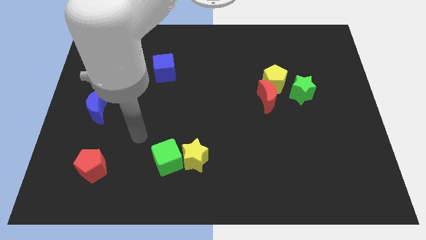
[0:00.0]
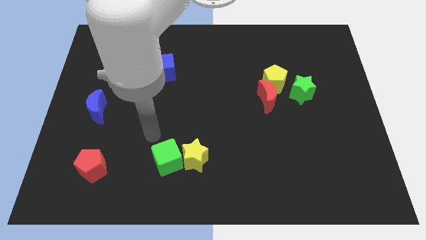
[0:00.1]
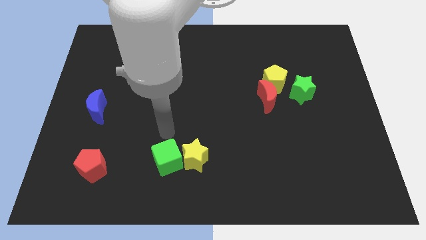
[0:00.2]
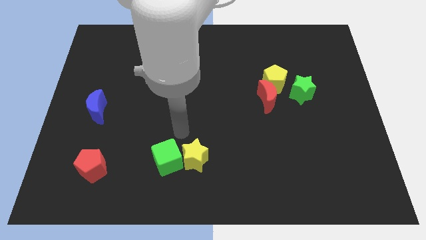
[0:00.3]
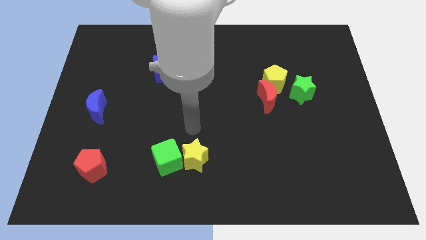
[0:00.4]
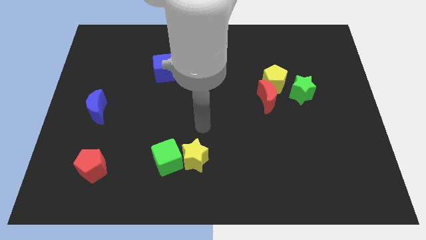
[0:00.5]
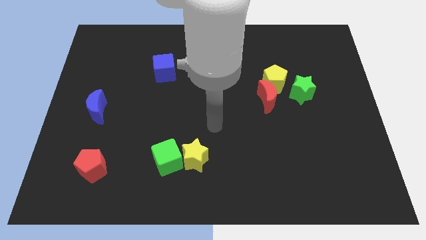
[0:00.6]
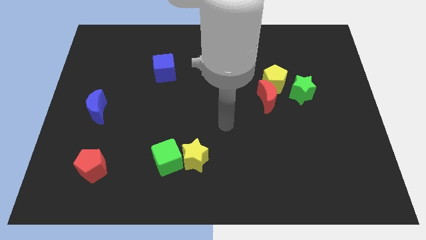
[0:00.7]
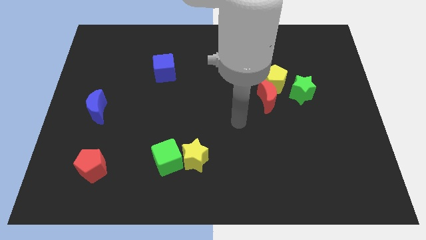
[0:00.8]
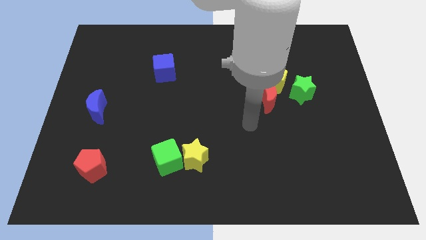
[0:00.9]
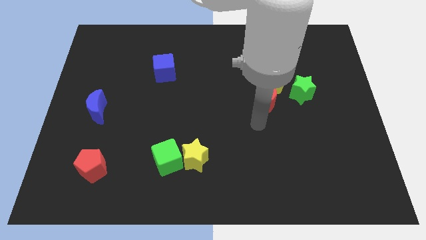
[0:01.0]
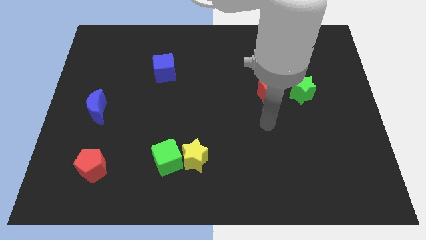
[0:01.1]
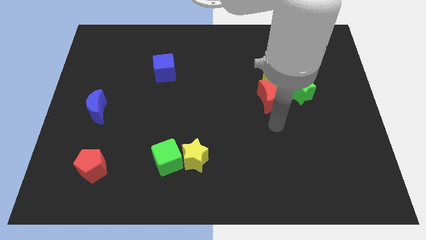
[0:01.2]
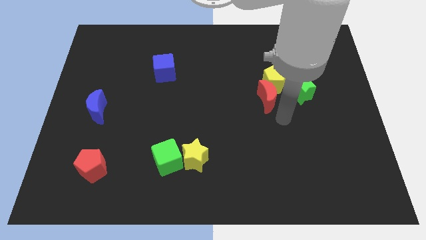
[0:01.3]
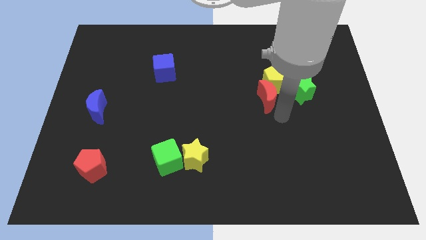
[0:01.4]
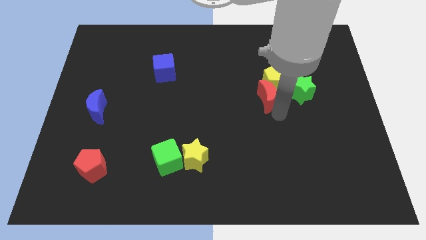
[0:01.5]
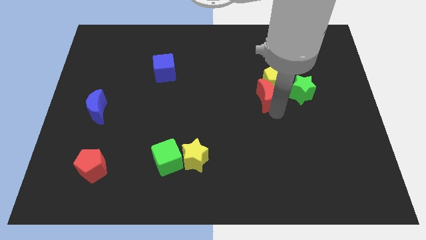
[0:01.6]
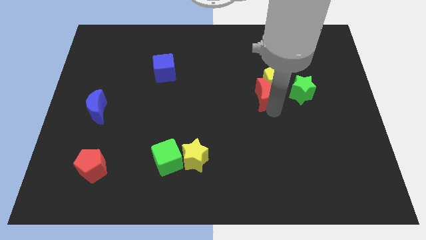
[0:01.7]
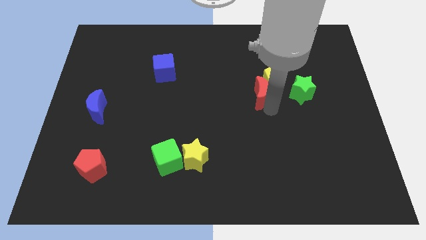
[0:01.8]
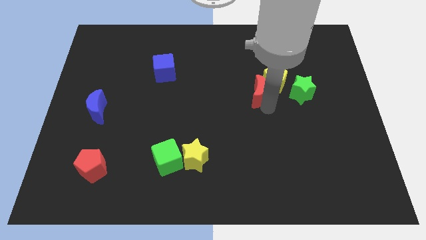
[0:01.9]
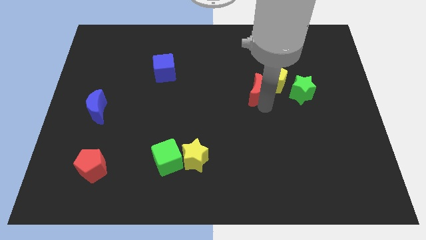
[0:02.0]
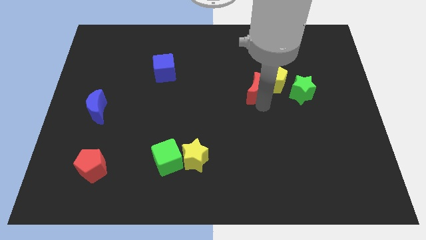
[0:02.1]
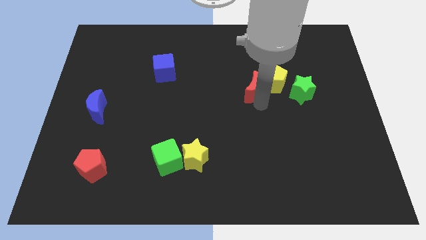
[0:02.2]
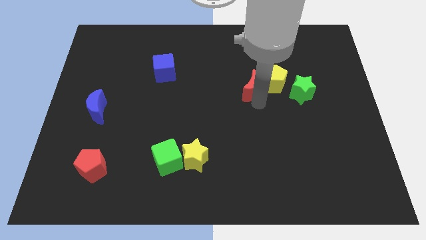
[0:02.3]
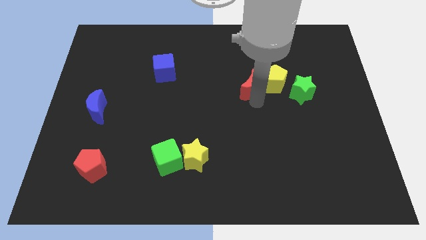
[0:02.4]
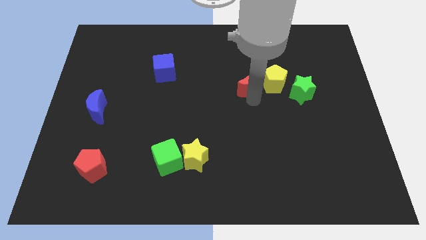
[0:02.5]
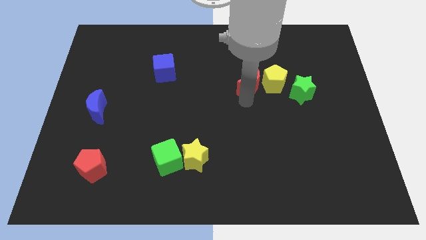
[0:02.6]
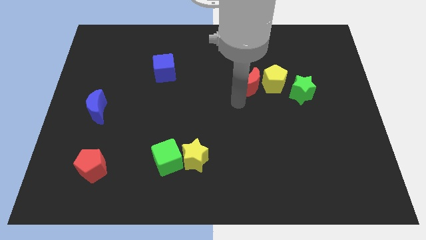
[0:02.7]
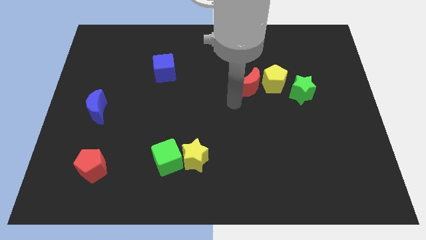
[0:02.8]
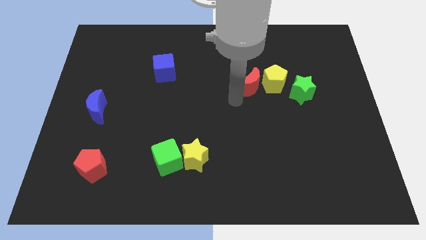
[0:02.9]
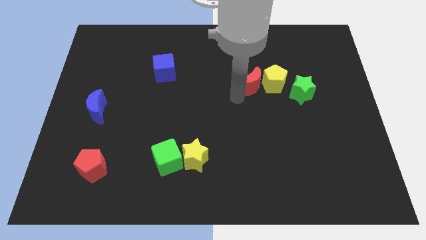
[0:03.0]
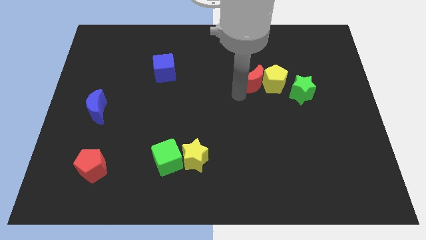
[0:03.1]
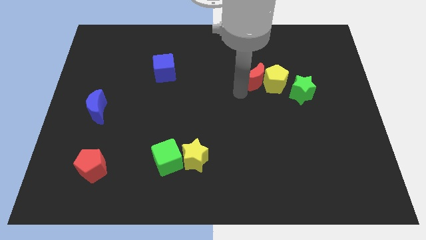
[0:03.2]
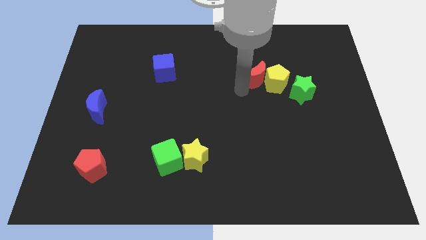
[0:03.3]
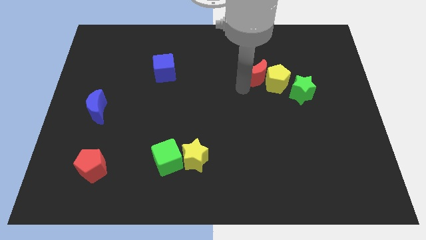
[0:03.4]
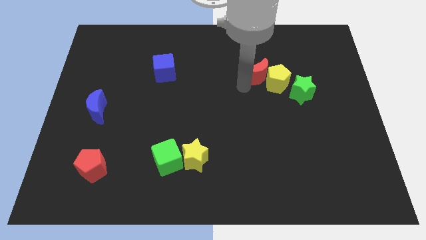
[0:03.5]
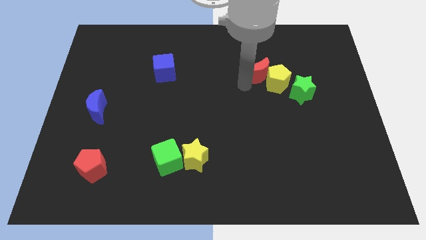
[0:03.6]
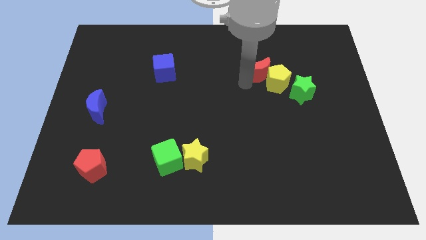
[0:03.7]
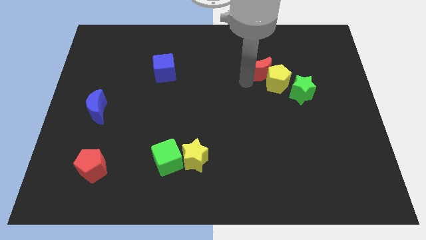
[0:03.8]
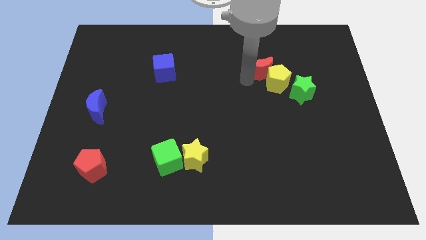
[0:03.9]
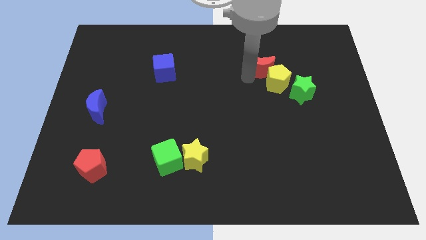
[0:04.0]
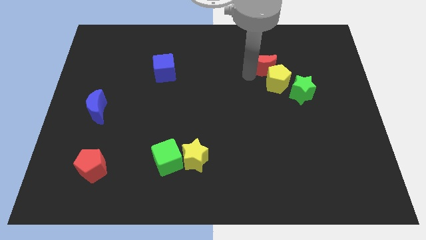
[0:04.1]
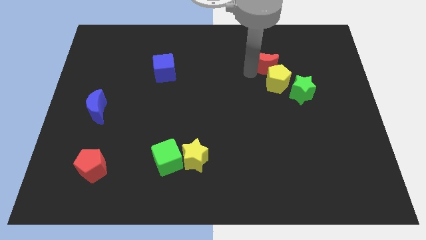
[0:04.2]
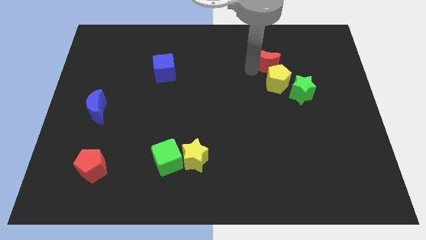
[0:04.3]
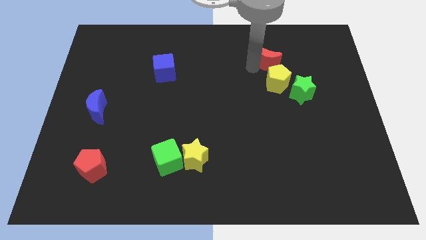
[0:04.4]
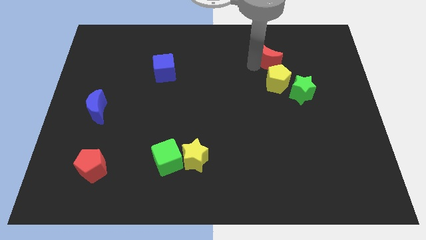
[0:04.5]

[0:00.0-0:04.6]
slightly slide the red moon up and to the right

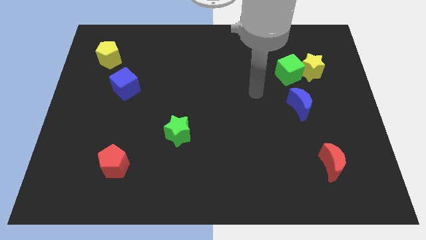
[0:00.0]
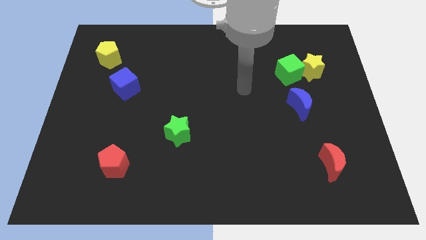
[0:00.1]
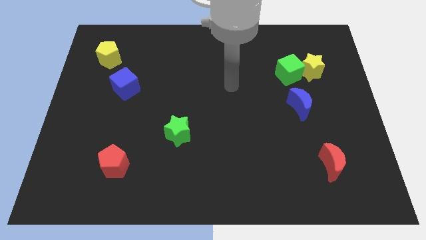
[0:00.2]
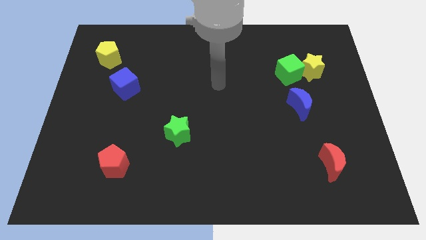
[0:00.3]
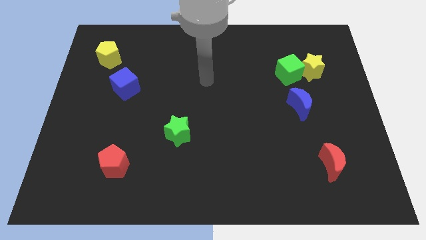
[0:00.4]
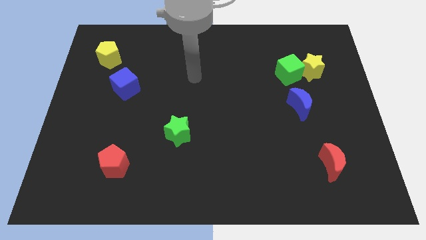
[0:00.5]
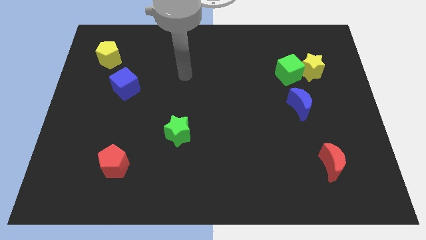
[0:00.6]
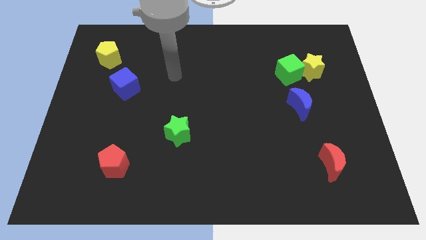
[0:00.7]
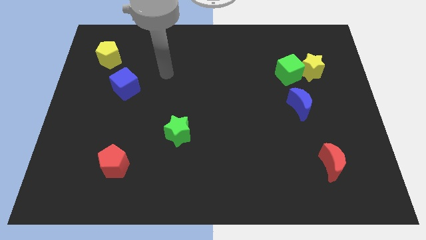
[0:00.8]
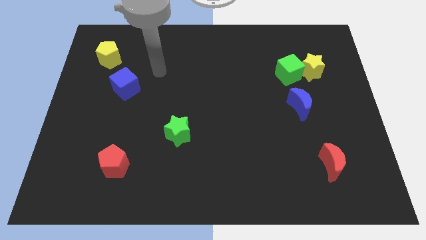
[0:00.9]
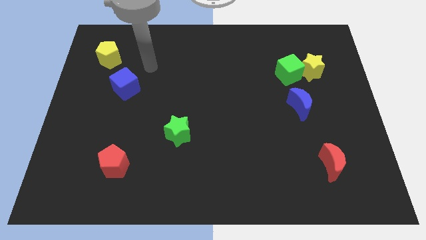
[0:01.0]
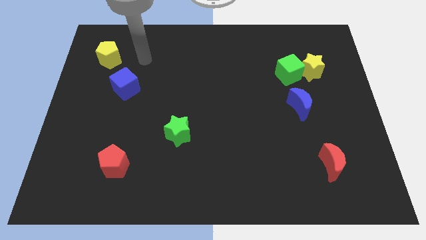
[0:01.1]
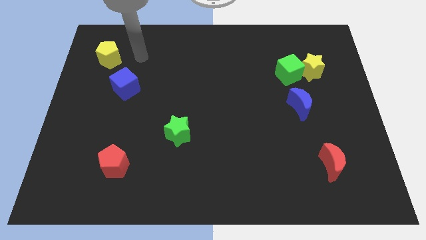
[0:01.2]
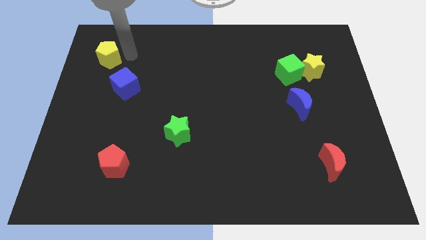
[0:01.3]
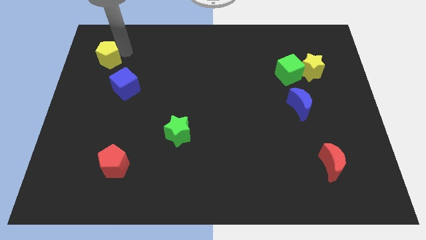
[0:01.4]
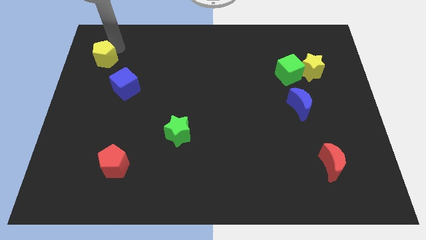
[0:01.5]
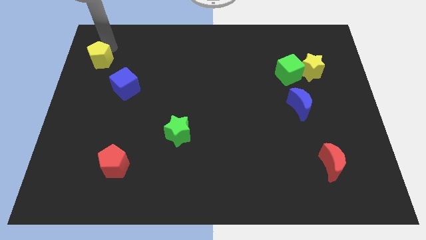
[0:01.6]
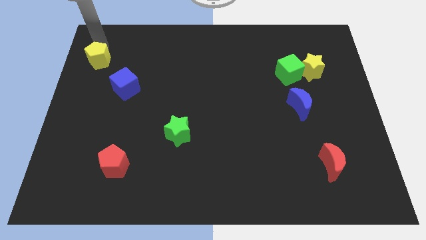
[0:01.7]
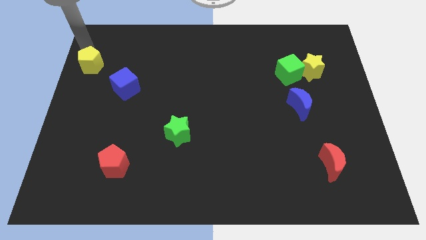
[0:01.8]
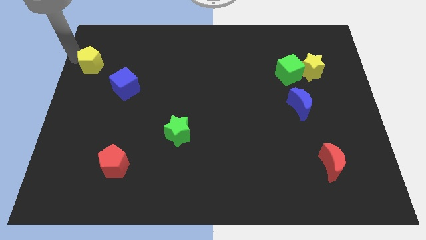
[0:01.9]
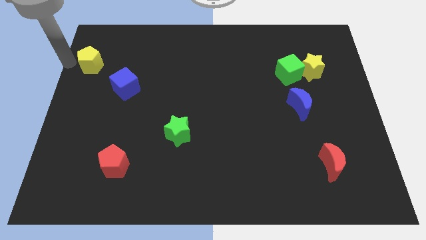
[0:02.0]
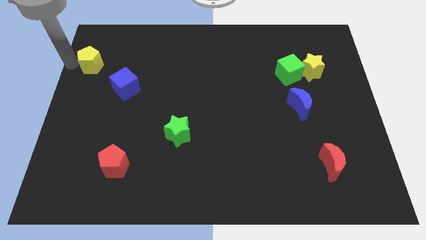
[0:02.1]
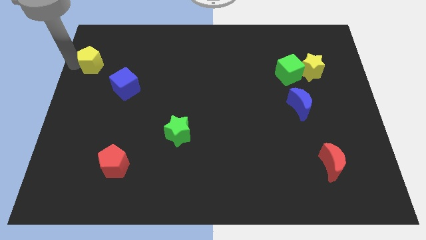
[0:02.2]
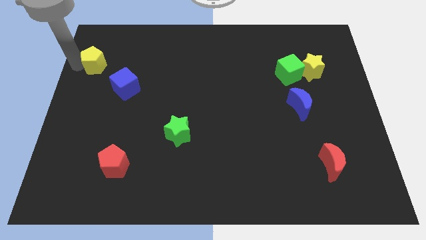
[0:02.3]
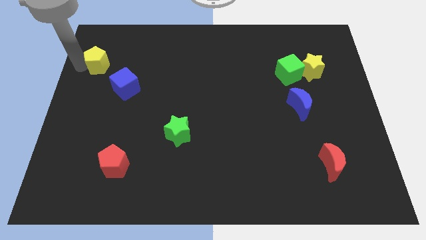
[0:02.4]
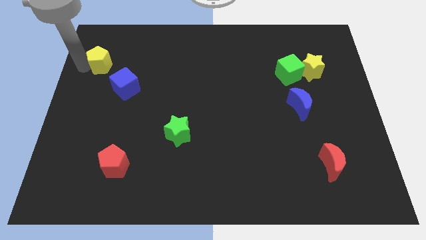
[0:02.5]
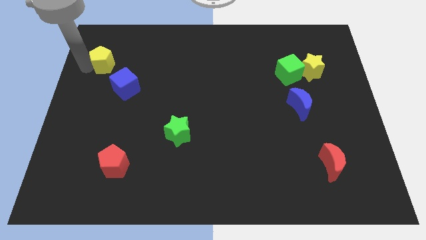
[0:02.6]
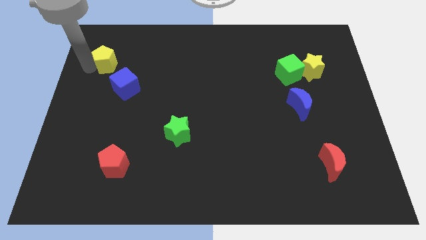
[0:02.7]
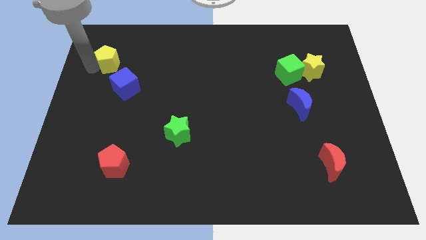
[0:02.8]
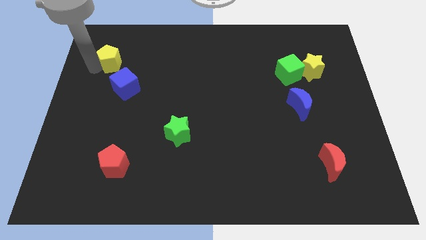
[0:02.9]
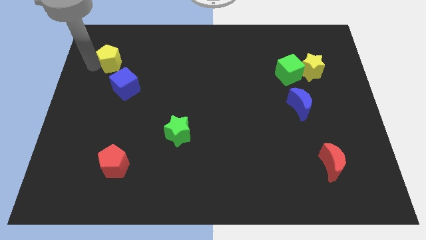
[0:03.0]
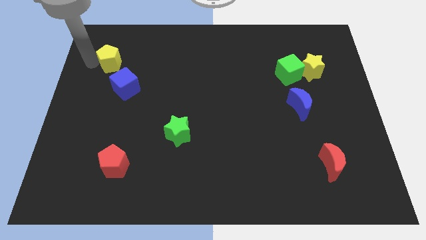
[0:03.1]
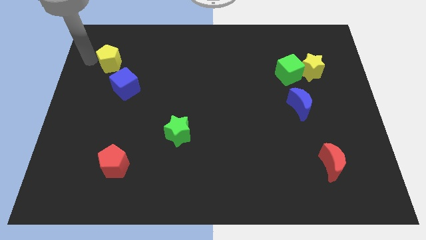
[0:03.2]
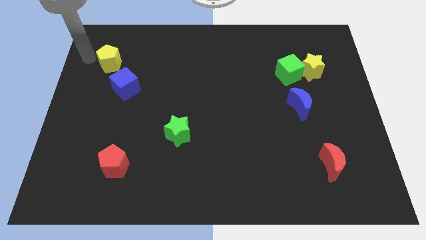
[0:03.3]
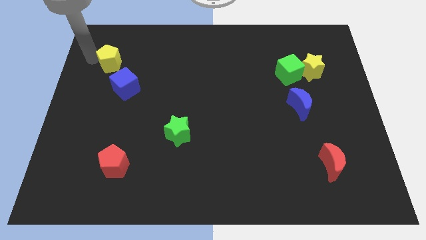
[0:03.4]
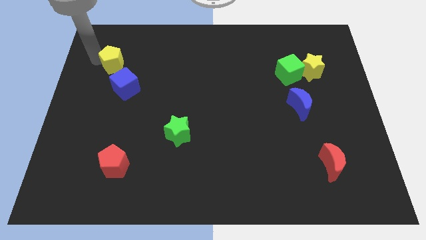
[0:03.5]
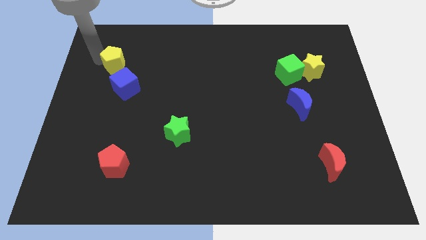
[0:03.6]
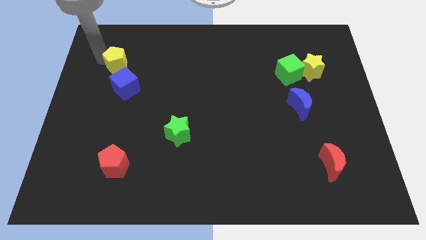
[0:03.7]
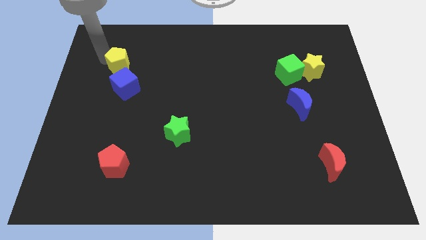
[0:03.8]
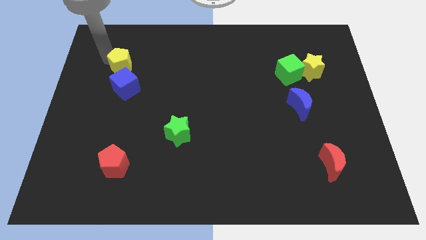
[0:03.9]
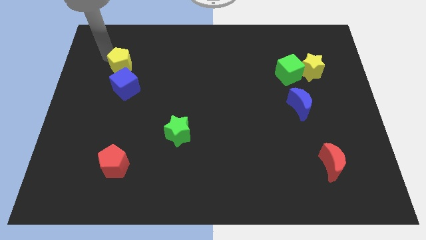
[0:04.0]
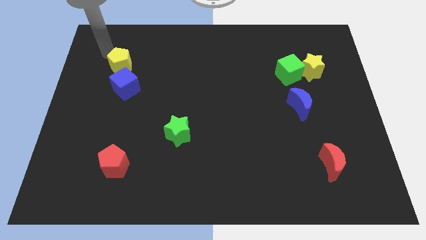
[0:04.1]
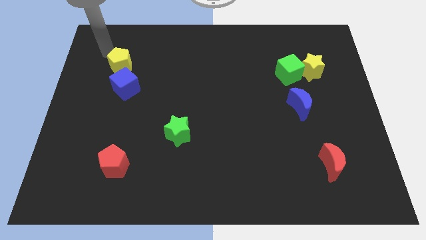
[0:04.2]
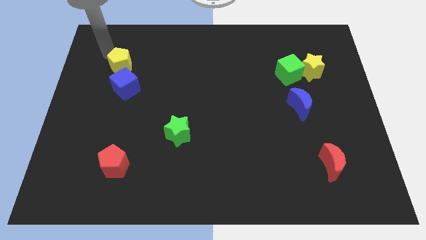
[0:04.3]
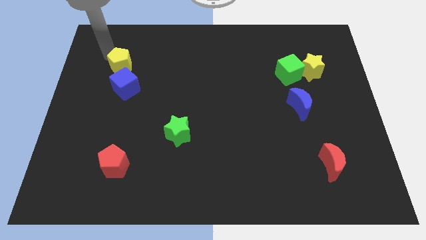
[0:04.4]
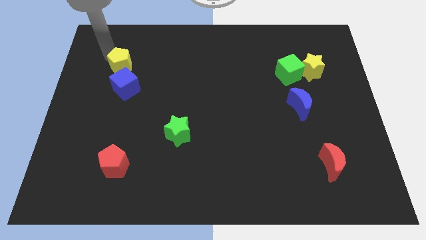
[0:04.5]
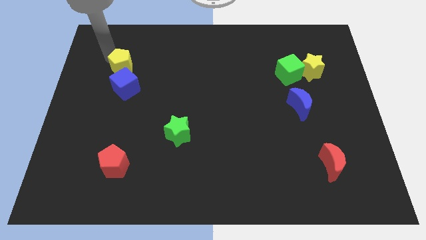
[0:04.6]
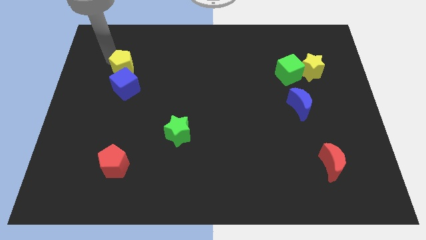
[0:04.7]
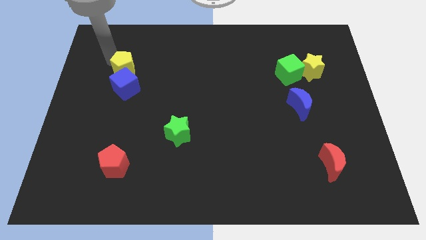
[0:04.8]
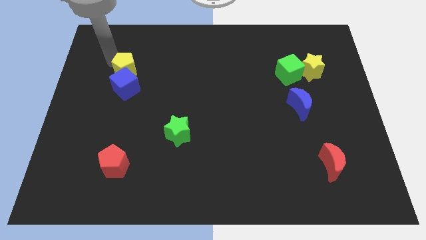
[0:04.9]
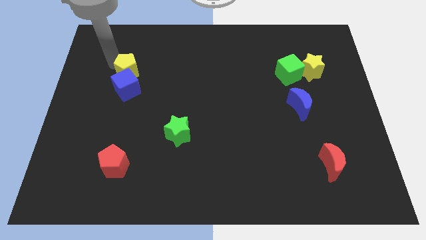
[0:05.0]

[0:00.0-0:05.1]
move the yellow pentagon down and to the right diagonally slightly
